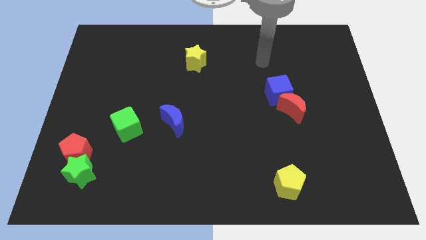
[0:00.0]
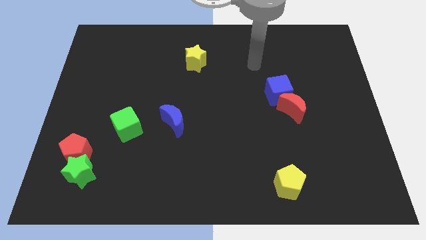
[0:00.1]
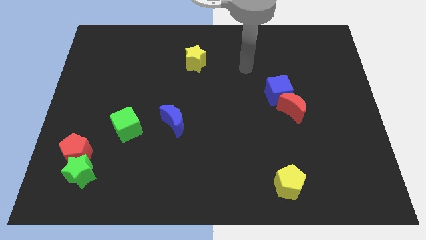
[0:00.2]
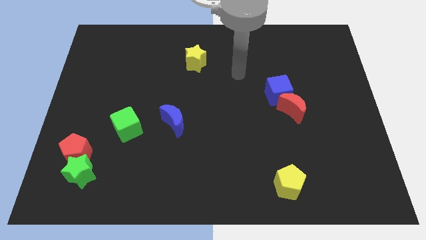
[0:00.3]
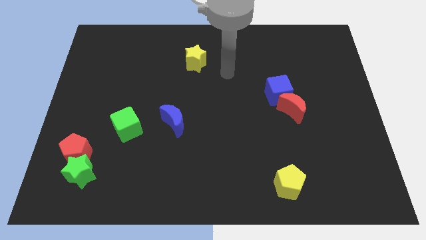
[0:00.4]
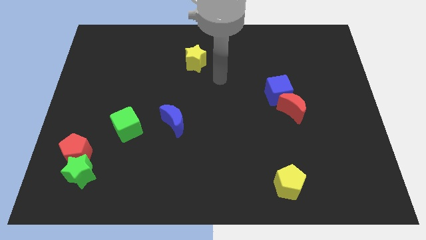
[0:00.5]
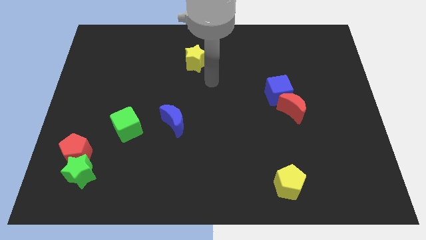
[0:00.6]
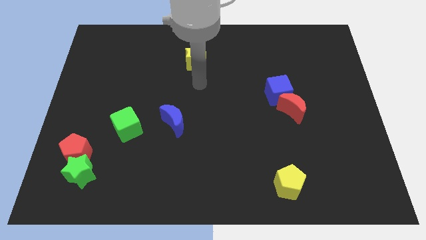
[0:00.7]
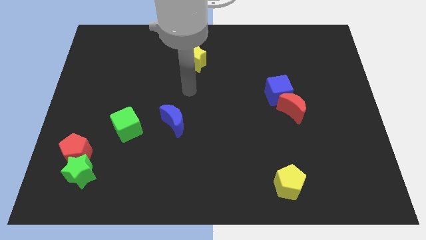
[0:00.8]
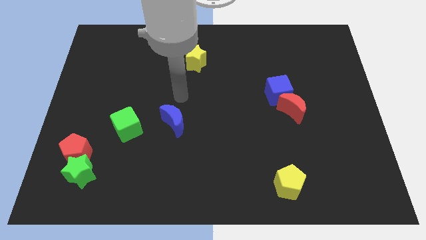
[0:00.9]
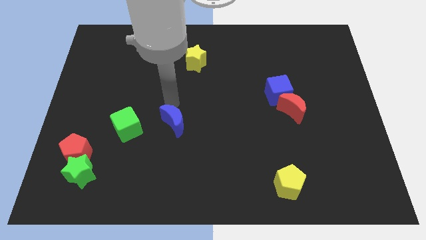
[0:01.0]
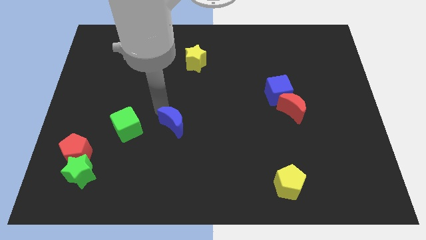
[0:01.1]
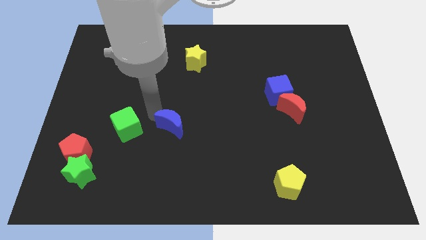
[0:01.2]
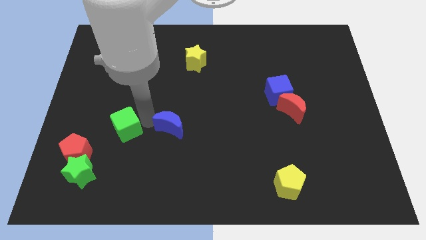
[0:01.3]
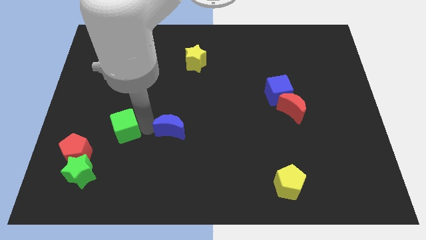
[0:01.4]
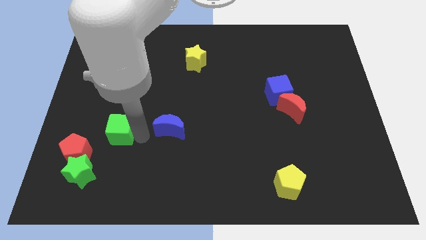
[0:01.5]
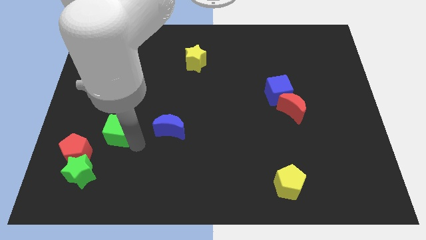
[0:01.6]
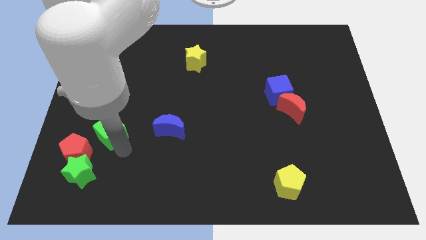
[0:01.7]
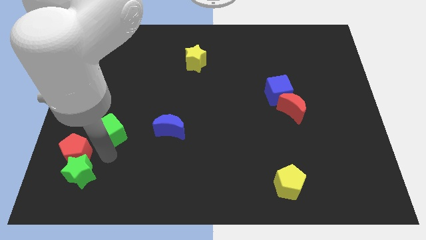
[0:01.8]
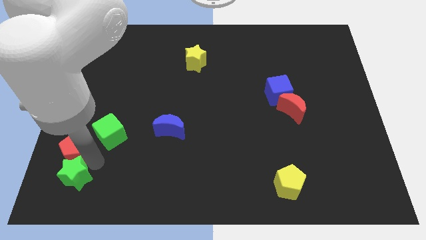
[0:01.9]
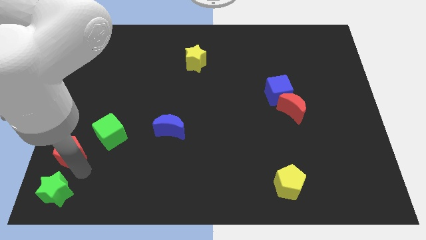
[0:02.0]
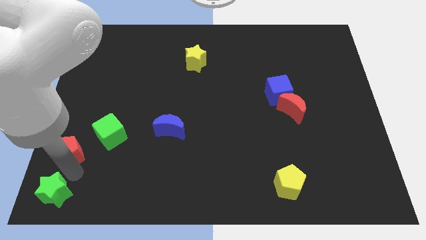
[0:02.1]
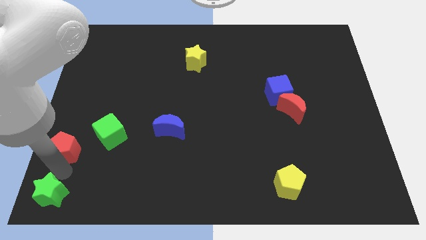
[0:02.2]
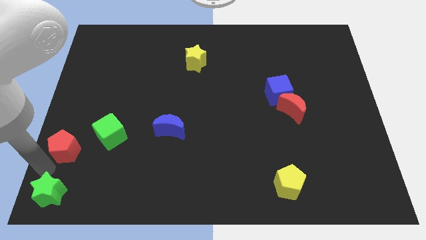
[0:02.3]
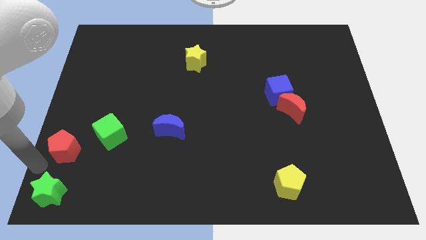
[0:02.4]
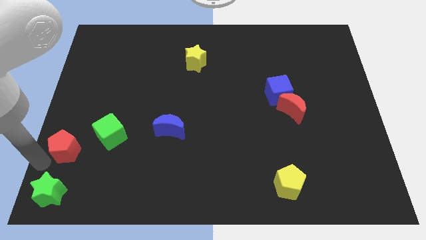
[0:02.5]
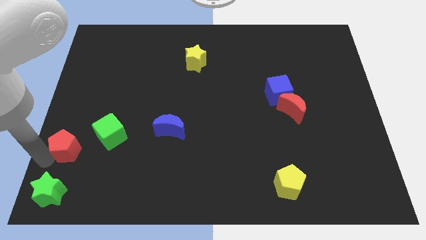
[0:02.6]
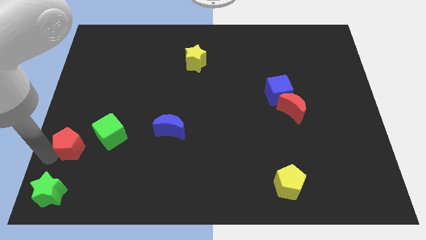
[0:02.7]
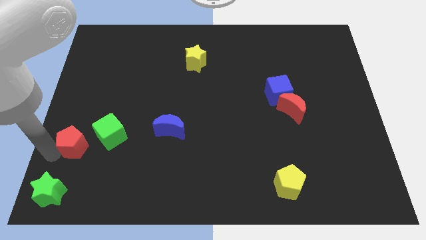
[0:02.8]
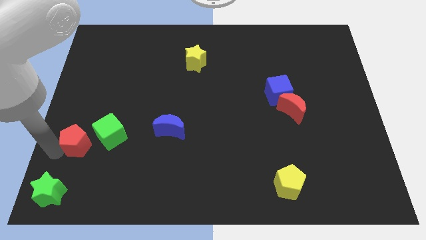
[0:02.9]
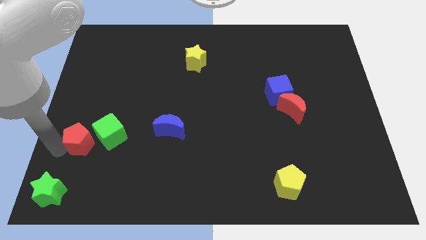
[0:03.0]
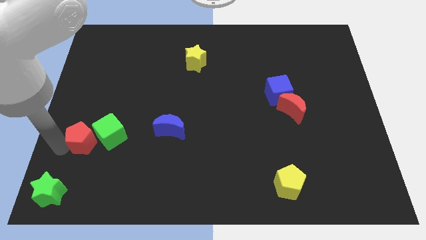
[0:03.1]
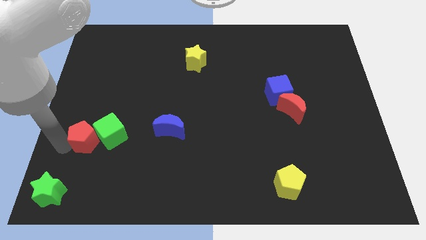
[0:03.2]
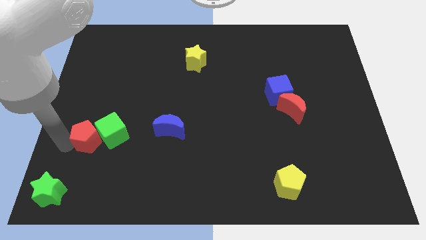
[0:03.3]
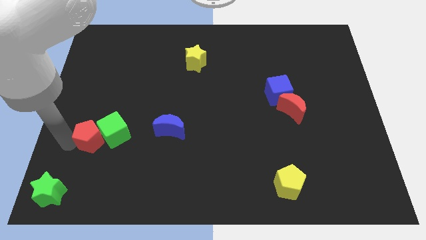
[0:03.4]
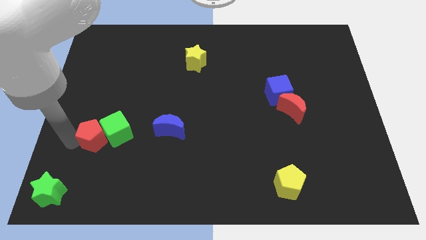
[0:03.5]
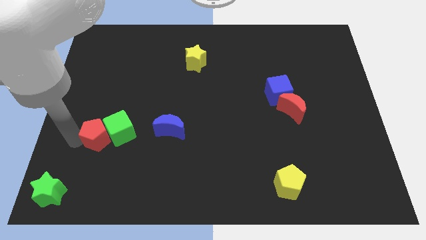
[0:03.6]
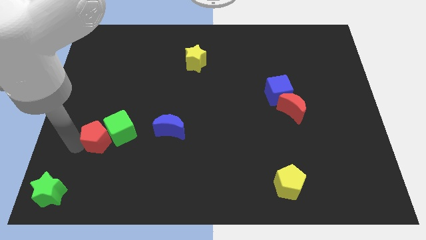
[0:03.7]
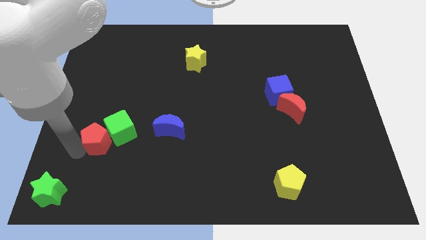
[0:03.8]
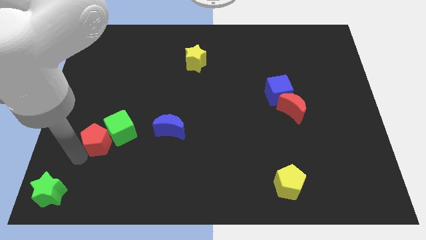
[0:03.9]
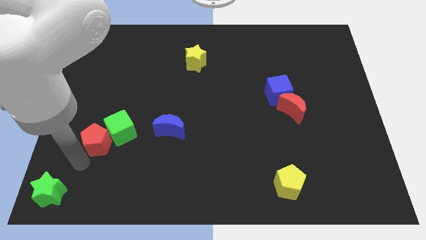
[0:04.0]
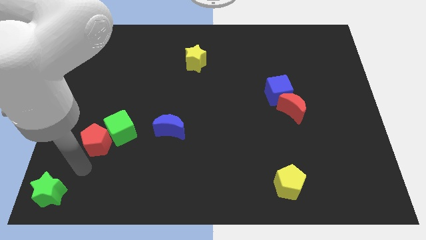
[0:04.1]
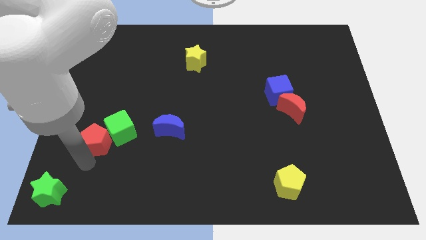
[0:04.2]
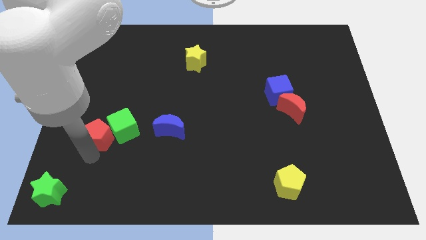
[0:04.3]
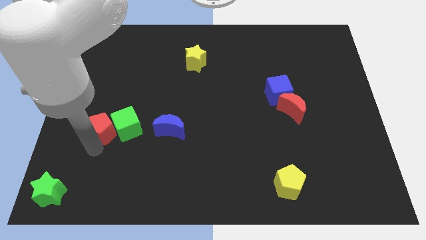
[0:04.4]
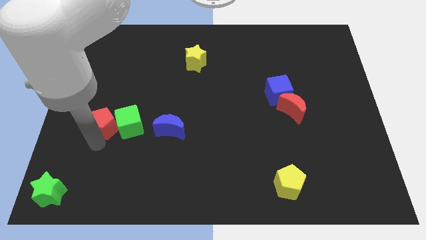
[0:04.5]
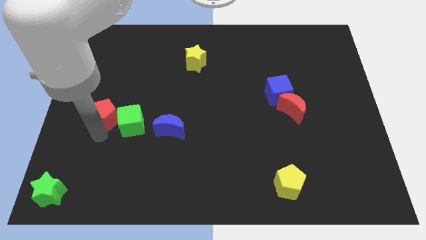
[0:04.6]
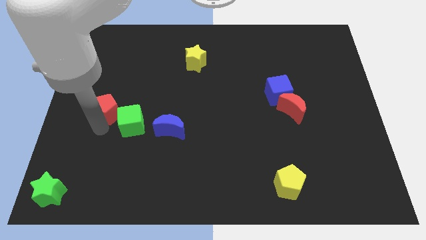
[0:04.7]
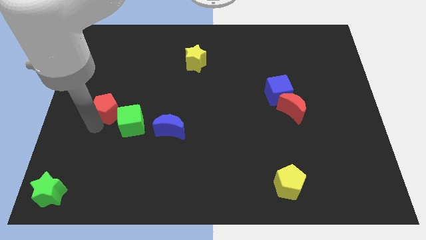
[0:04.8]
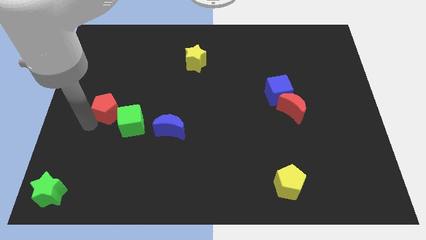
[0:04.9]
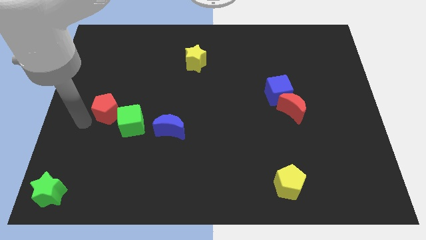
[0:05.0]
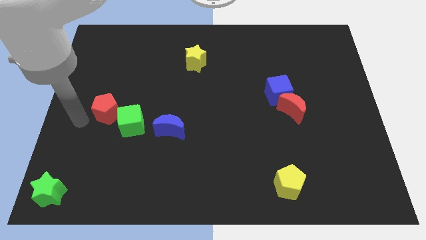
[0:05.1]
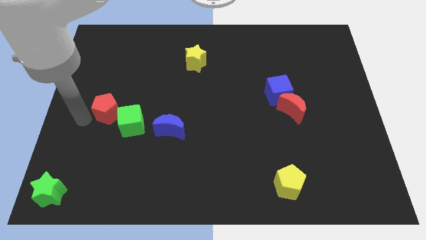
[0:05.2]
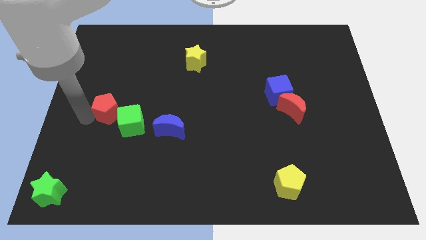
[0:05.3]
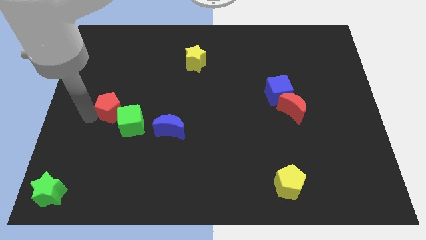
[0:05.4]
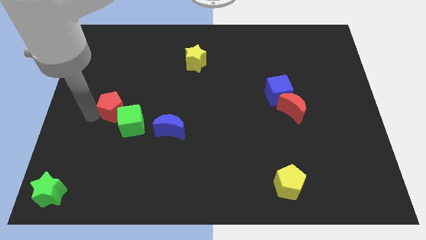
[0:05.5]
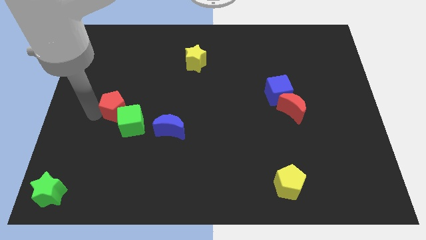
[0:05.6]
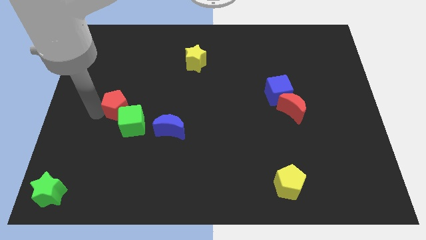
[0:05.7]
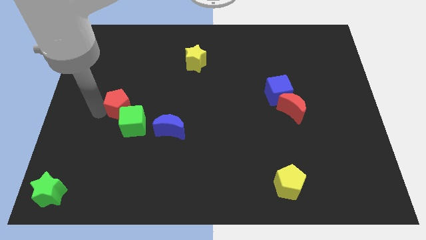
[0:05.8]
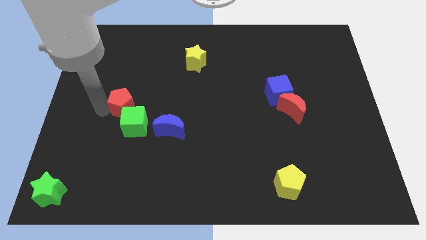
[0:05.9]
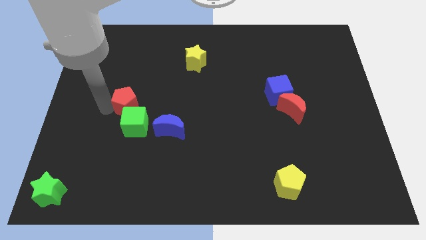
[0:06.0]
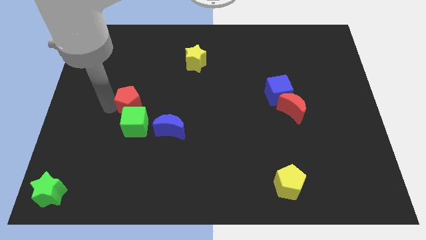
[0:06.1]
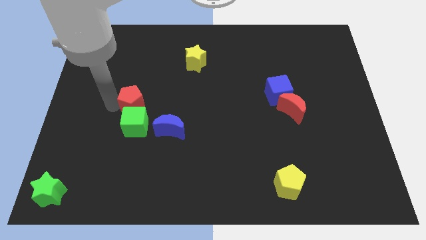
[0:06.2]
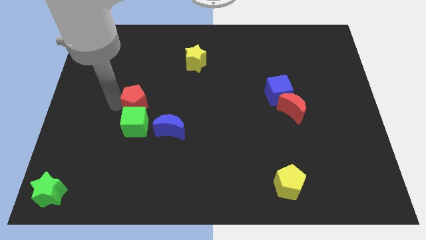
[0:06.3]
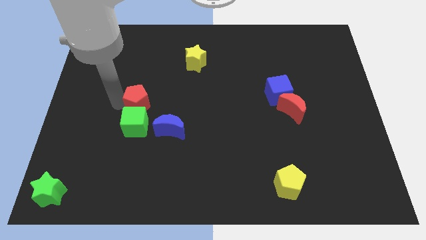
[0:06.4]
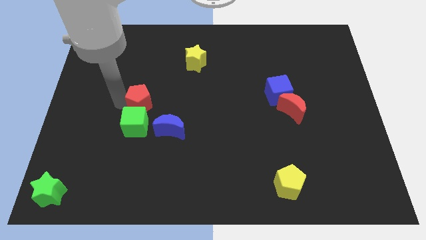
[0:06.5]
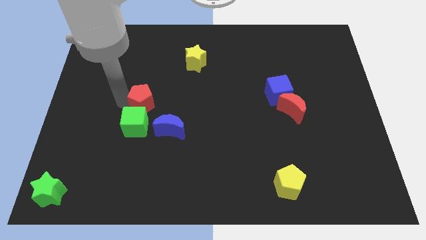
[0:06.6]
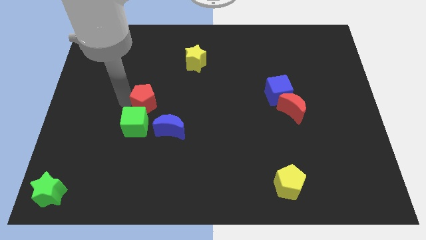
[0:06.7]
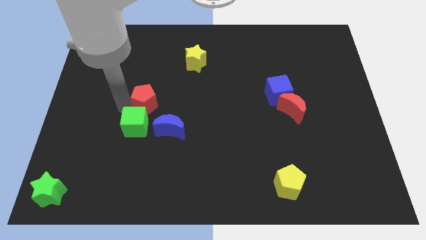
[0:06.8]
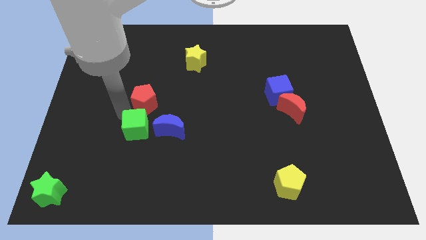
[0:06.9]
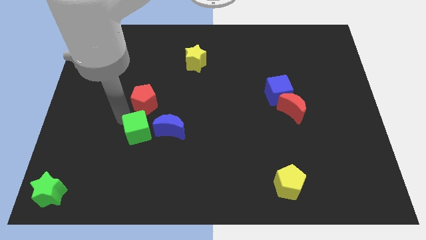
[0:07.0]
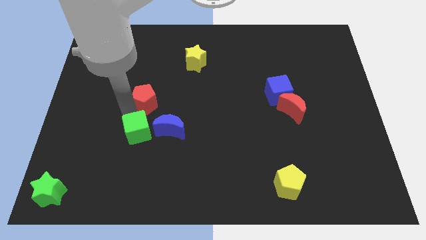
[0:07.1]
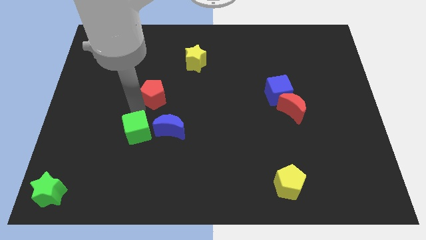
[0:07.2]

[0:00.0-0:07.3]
push the red pentagon diagonally upwards and to the right

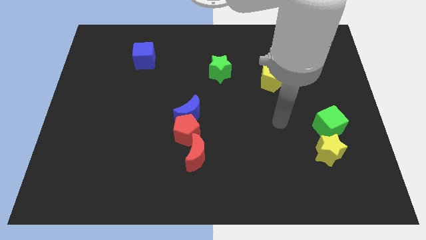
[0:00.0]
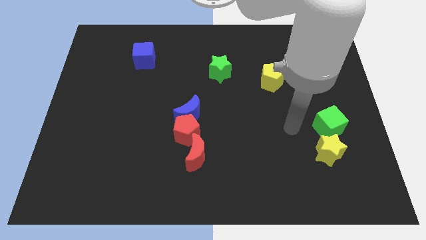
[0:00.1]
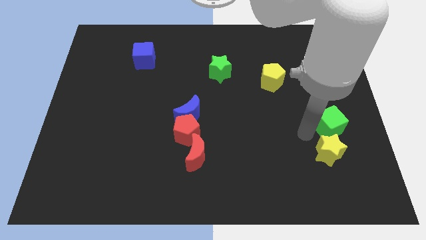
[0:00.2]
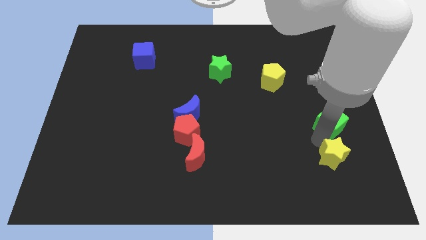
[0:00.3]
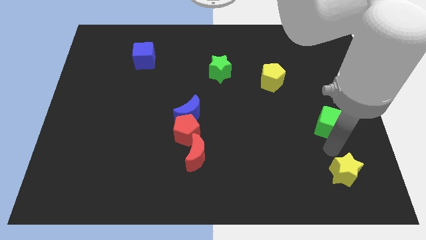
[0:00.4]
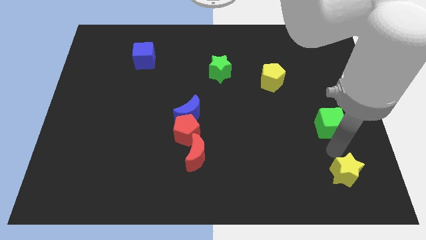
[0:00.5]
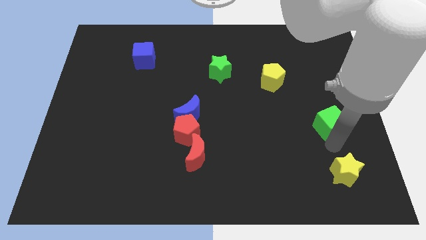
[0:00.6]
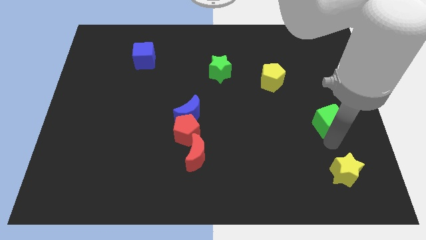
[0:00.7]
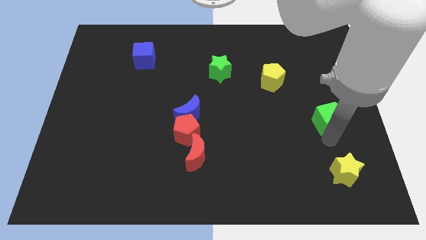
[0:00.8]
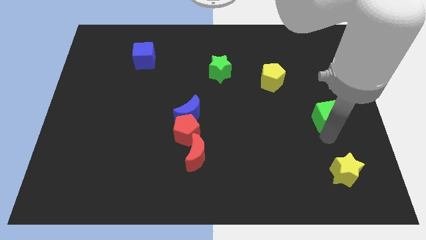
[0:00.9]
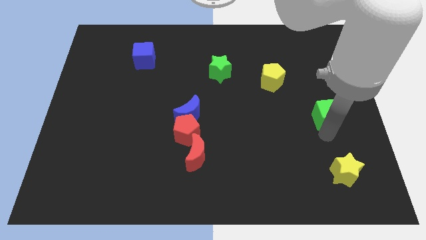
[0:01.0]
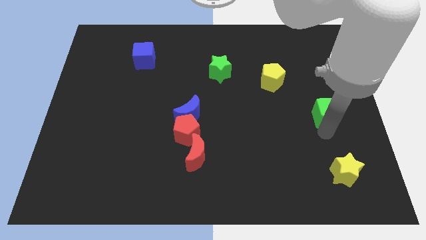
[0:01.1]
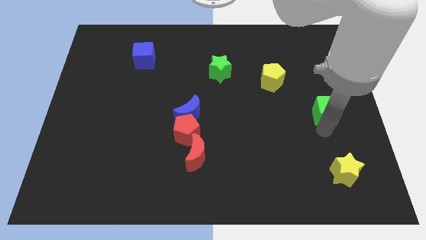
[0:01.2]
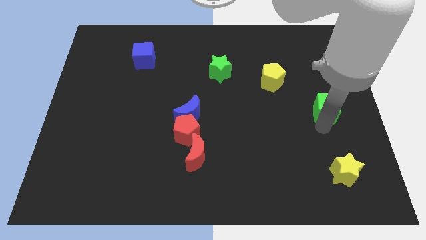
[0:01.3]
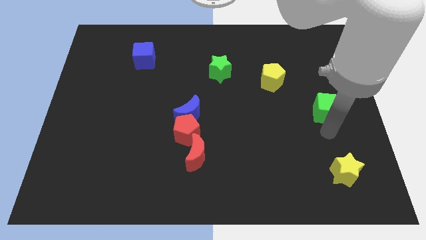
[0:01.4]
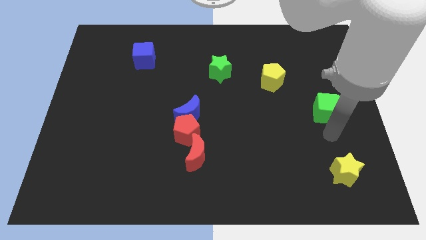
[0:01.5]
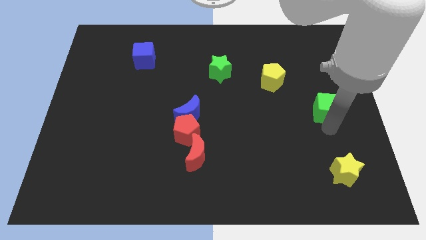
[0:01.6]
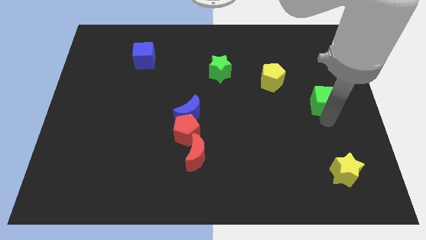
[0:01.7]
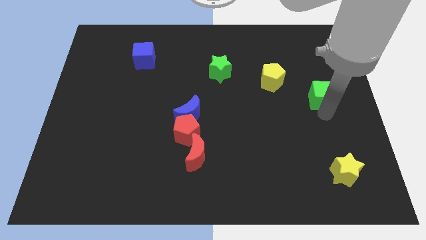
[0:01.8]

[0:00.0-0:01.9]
slightly slide the green cube up
